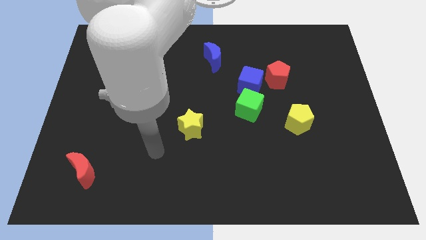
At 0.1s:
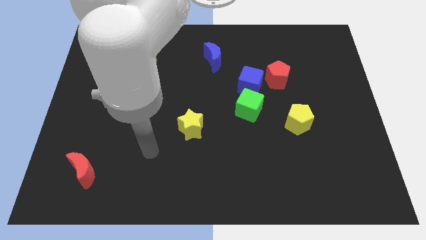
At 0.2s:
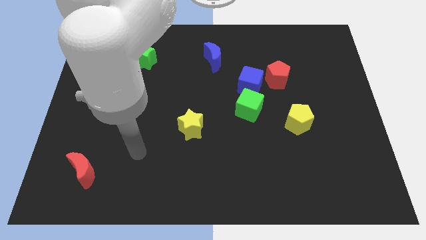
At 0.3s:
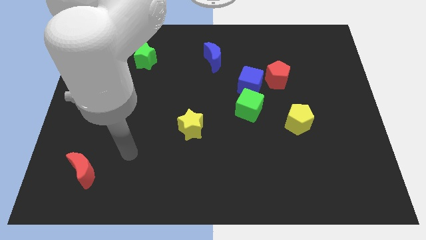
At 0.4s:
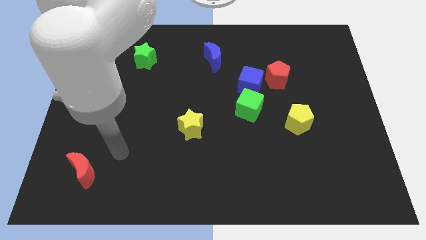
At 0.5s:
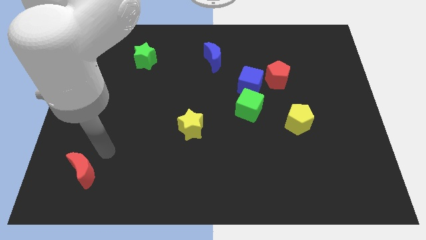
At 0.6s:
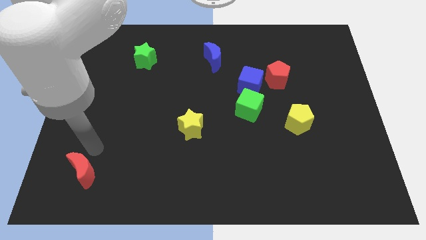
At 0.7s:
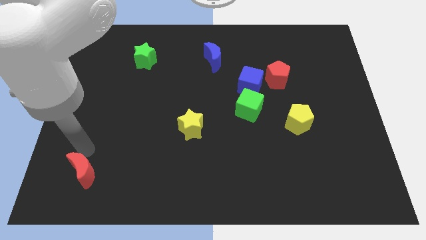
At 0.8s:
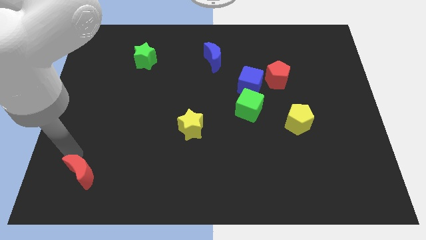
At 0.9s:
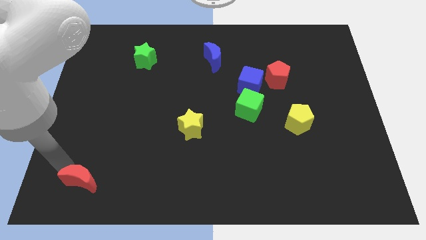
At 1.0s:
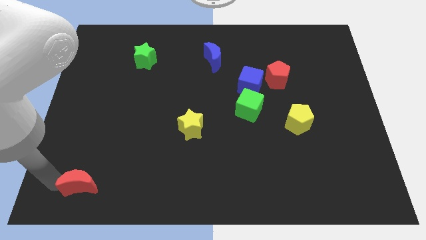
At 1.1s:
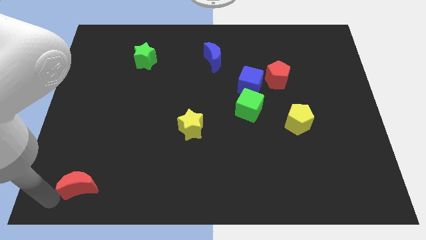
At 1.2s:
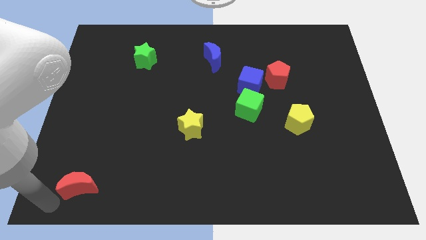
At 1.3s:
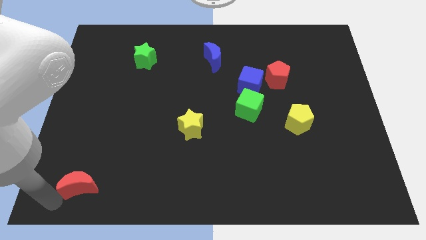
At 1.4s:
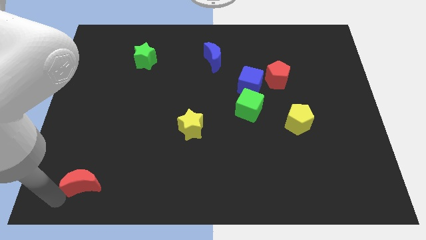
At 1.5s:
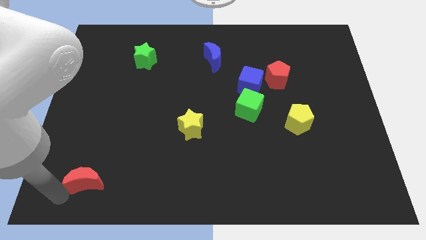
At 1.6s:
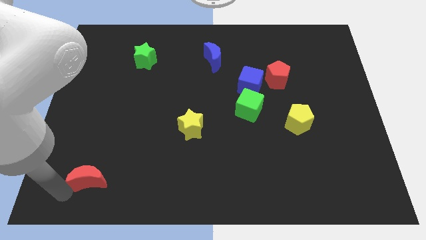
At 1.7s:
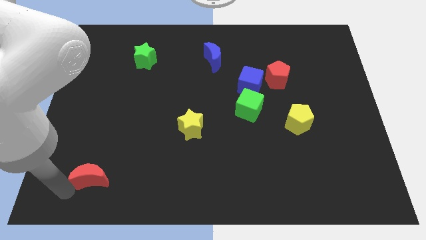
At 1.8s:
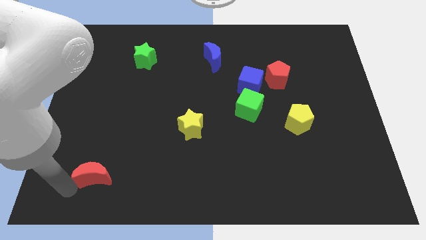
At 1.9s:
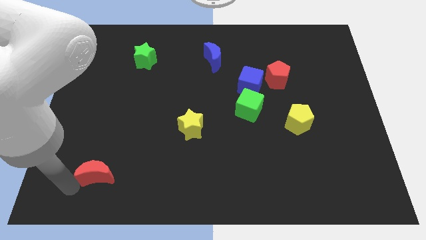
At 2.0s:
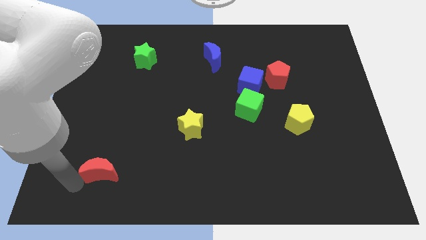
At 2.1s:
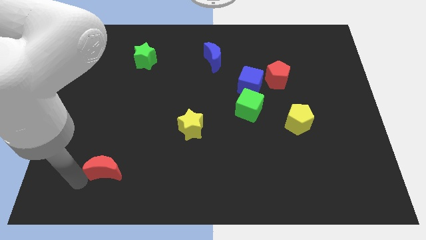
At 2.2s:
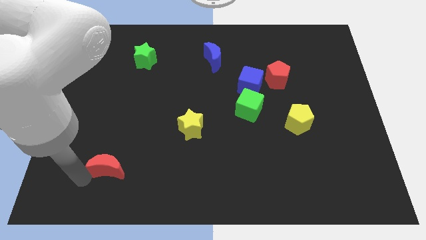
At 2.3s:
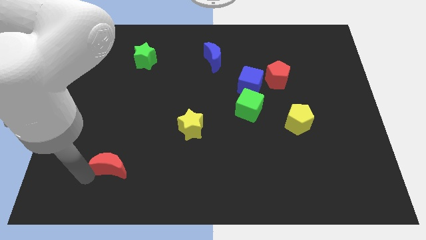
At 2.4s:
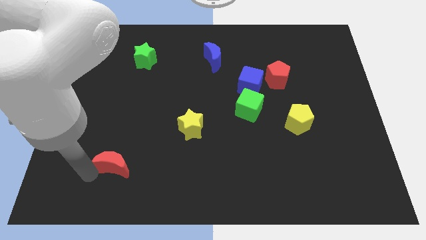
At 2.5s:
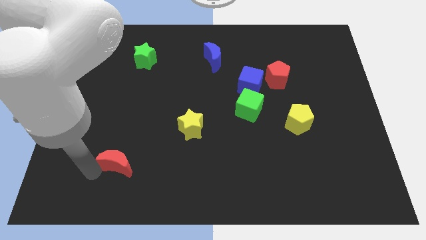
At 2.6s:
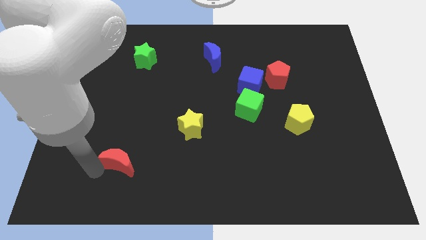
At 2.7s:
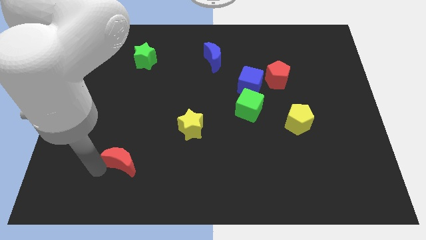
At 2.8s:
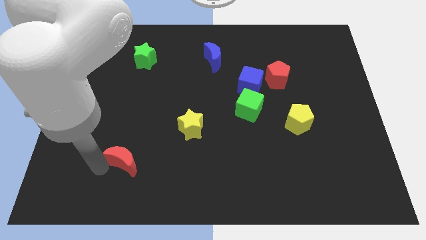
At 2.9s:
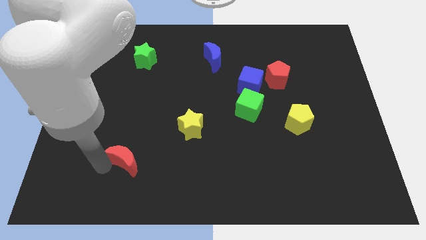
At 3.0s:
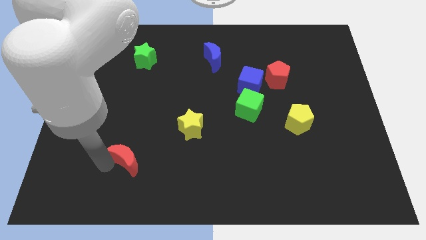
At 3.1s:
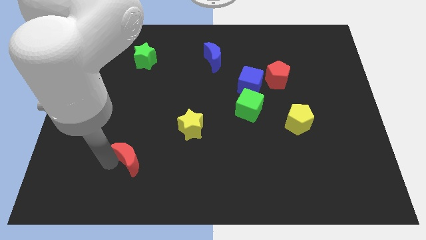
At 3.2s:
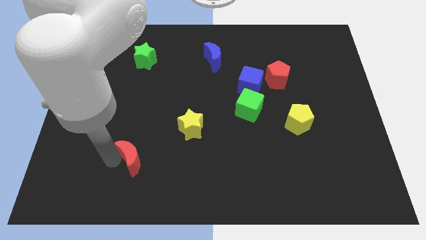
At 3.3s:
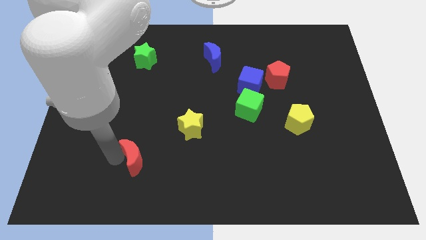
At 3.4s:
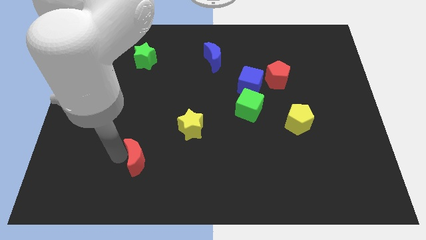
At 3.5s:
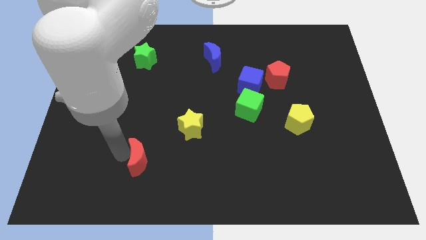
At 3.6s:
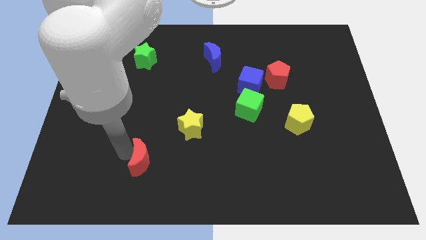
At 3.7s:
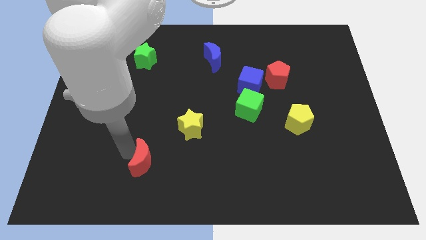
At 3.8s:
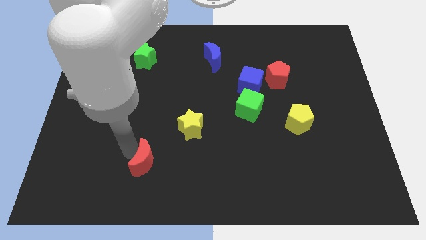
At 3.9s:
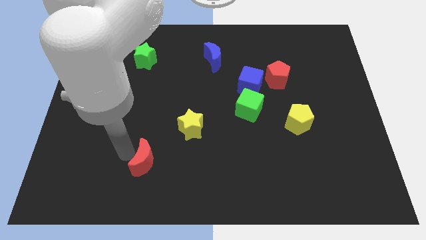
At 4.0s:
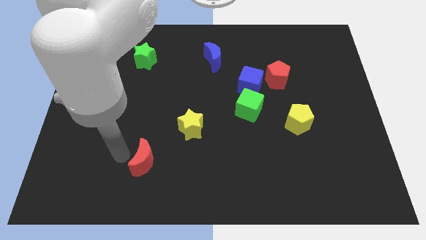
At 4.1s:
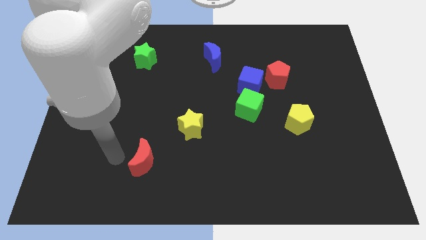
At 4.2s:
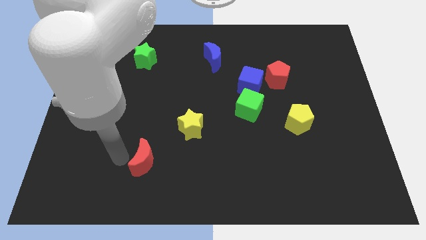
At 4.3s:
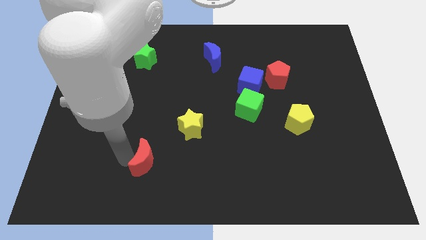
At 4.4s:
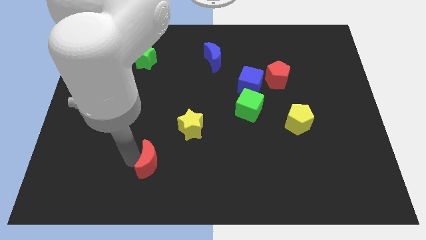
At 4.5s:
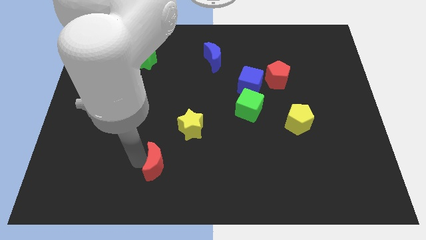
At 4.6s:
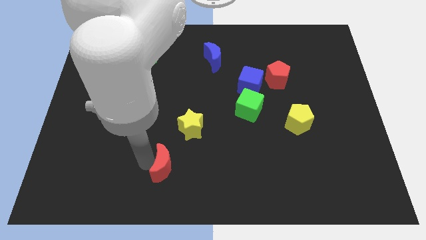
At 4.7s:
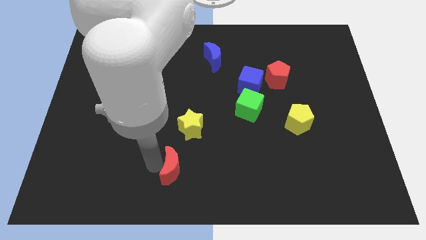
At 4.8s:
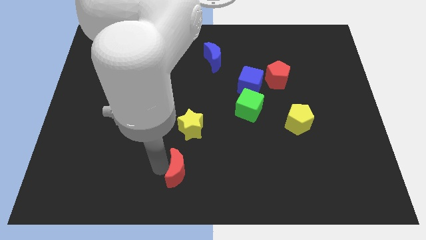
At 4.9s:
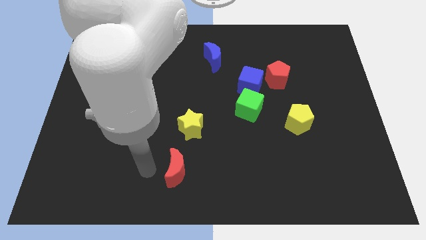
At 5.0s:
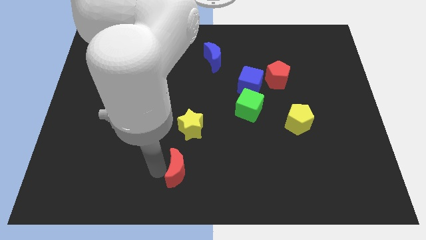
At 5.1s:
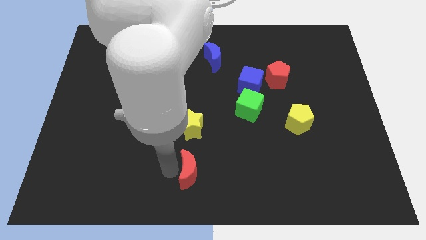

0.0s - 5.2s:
push the red moon right

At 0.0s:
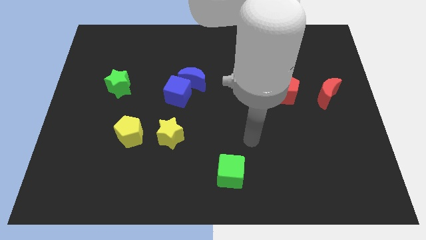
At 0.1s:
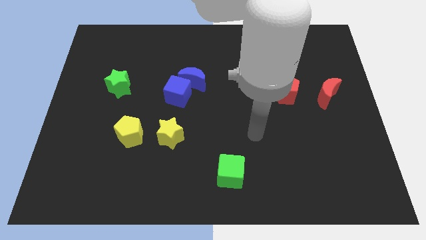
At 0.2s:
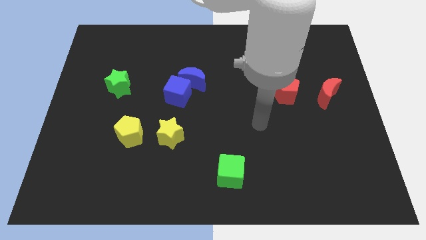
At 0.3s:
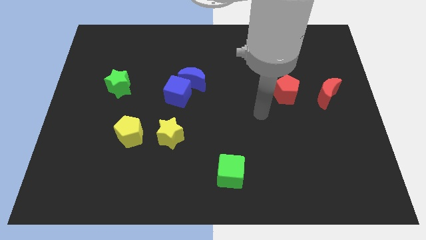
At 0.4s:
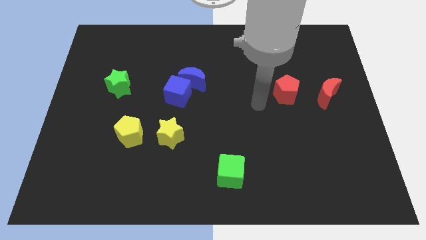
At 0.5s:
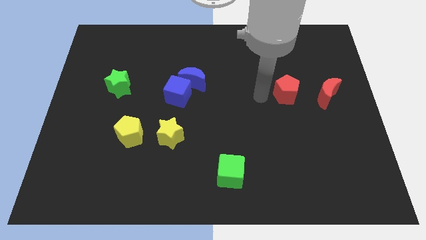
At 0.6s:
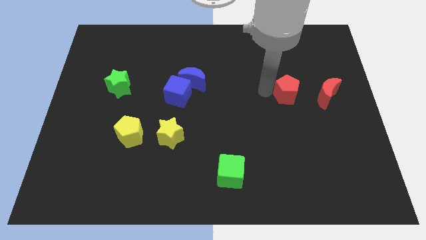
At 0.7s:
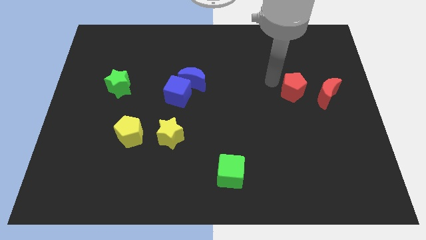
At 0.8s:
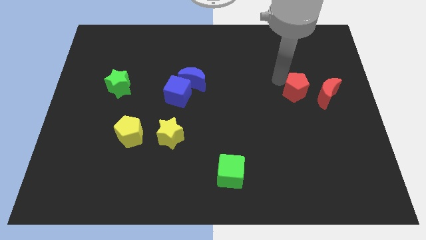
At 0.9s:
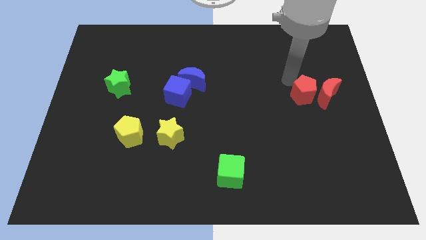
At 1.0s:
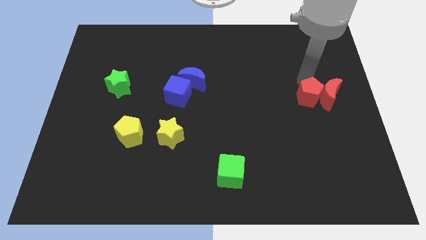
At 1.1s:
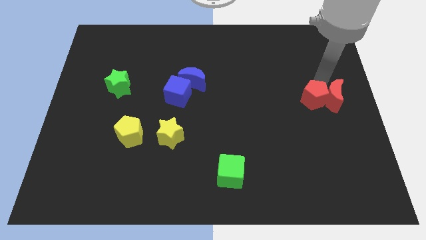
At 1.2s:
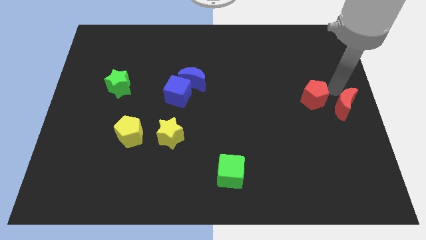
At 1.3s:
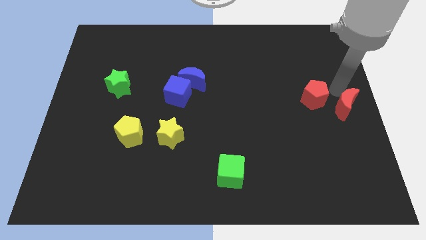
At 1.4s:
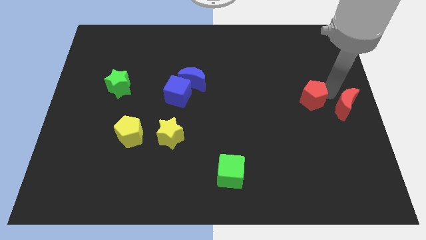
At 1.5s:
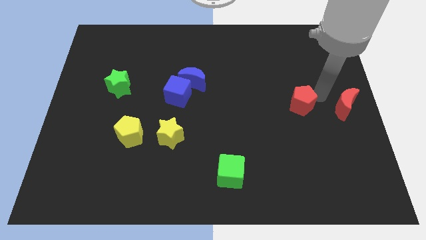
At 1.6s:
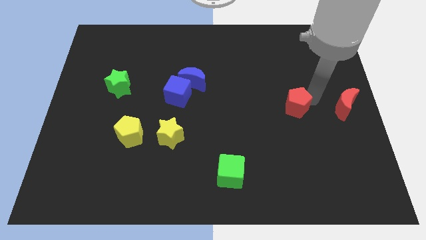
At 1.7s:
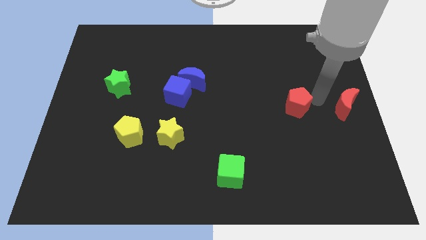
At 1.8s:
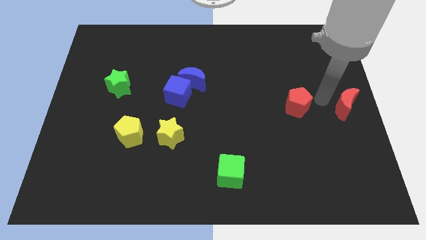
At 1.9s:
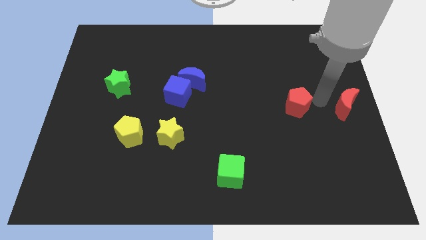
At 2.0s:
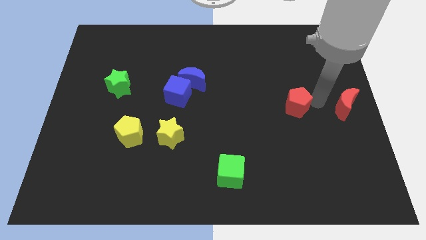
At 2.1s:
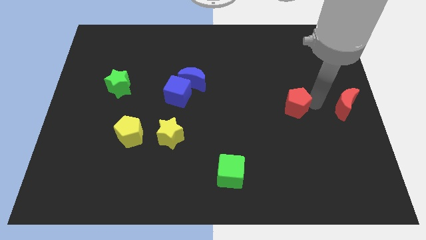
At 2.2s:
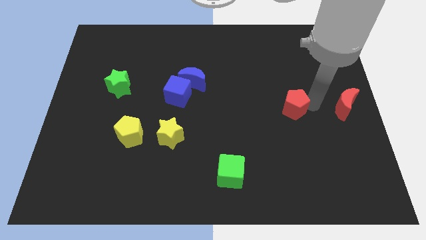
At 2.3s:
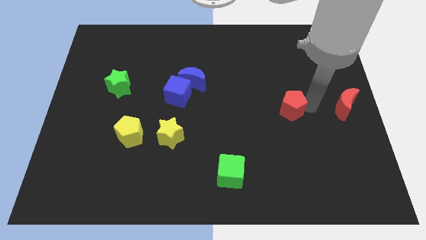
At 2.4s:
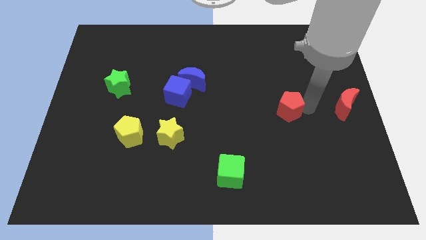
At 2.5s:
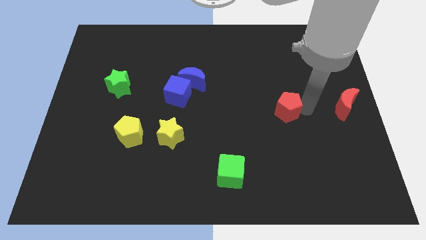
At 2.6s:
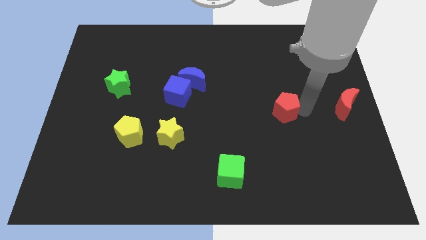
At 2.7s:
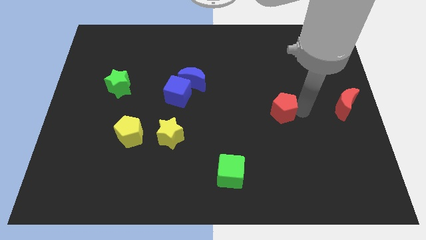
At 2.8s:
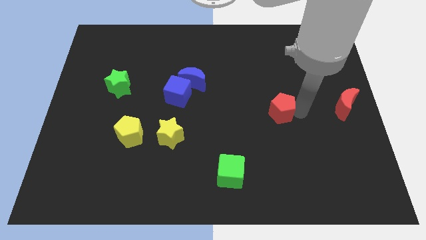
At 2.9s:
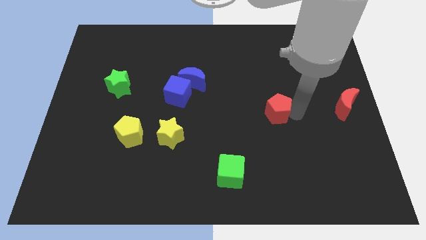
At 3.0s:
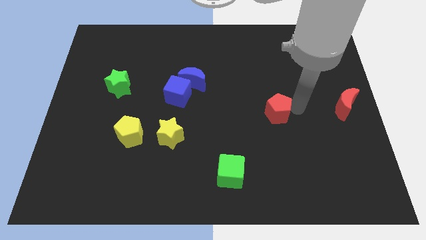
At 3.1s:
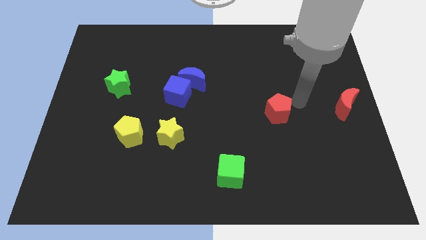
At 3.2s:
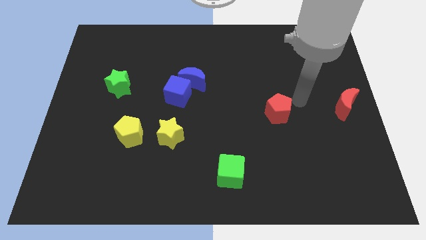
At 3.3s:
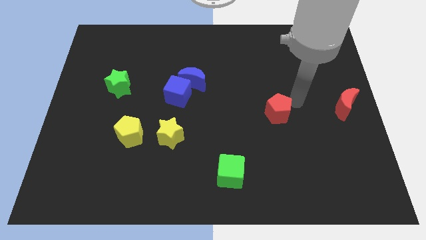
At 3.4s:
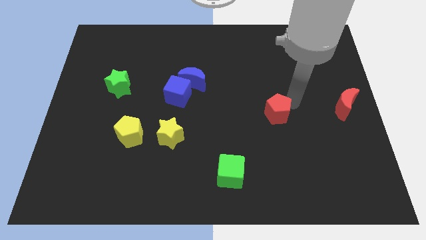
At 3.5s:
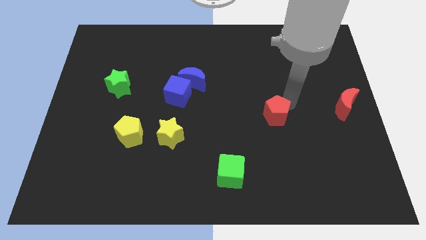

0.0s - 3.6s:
slightly slide the red pentagon downwards and then left
